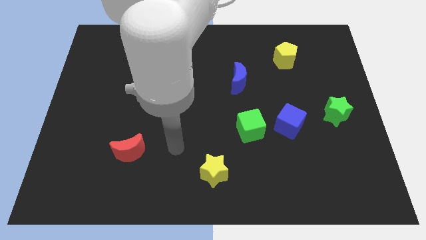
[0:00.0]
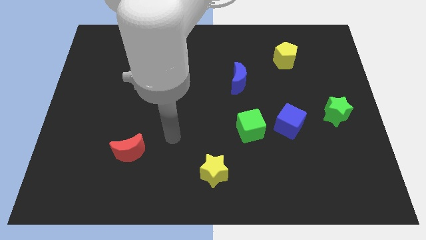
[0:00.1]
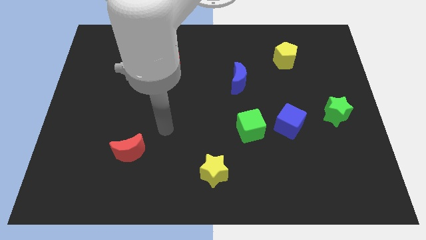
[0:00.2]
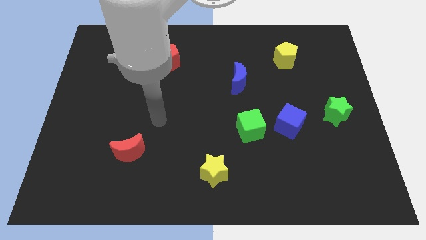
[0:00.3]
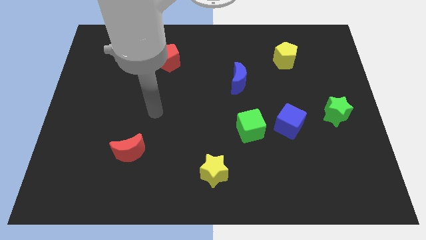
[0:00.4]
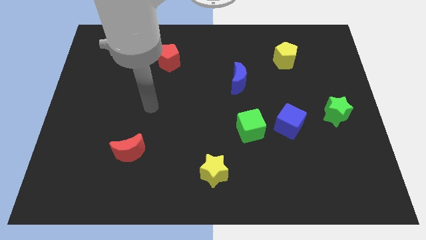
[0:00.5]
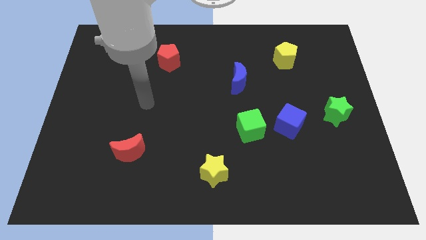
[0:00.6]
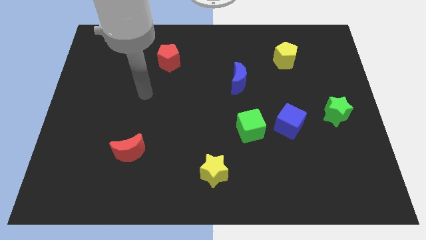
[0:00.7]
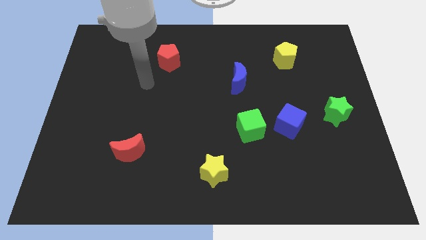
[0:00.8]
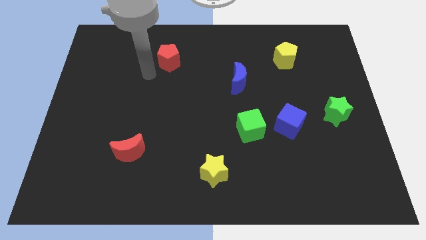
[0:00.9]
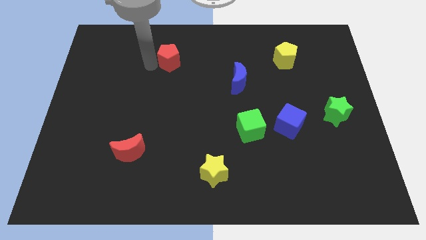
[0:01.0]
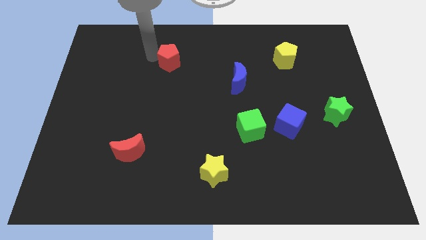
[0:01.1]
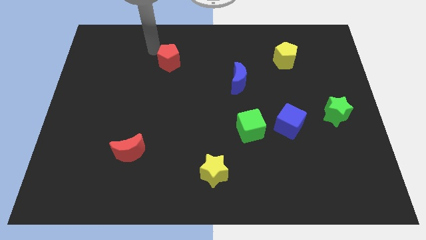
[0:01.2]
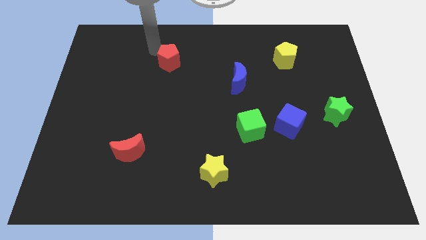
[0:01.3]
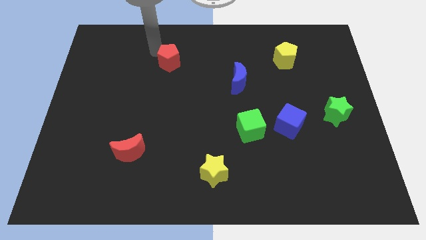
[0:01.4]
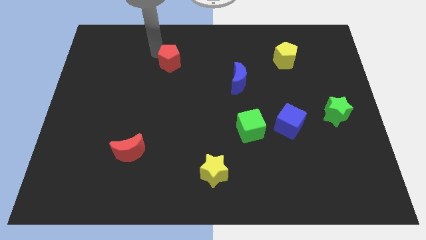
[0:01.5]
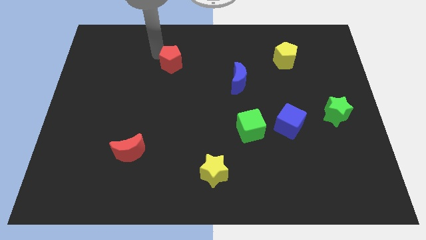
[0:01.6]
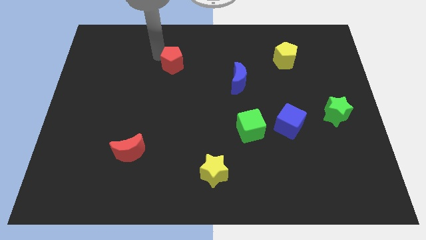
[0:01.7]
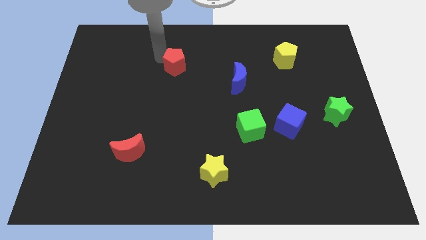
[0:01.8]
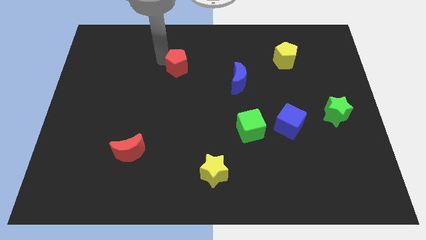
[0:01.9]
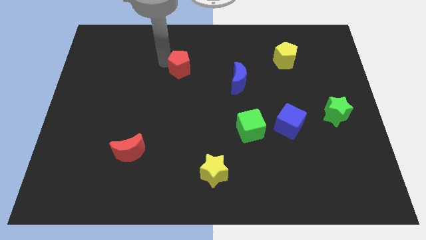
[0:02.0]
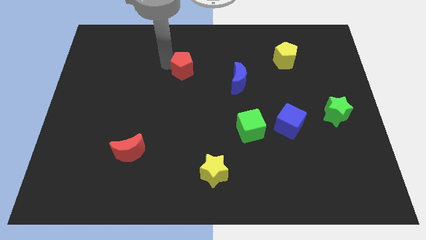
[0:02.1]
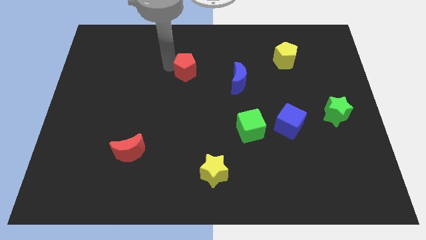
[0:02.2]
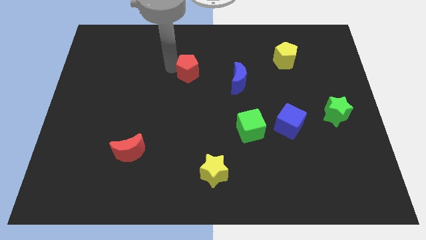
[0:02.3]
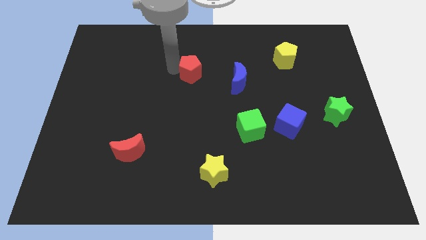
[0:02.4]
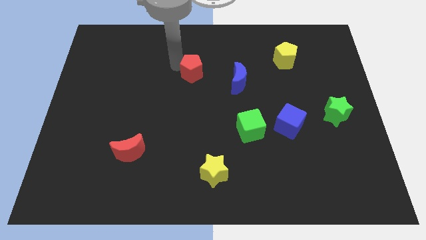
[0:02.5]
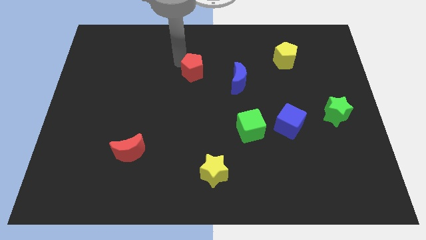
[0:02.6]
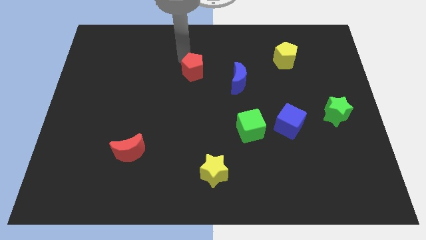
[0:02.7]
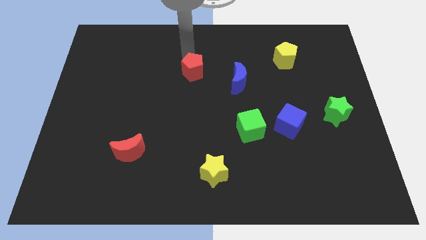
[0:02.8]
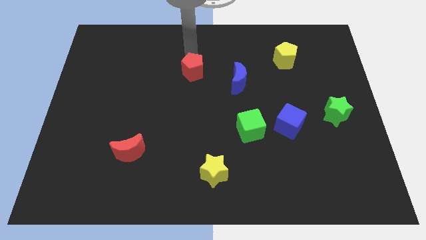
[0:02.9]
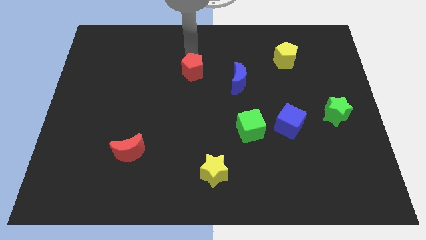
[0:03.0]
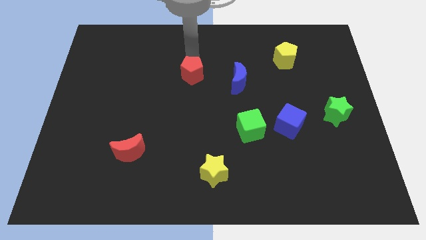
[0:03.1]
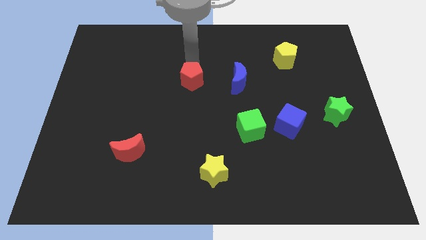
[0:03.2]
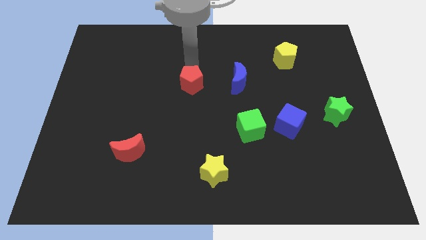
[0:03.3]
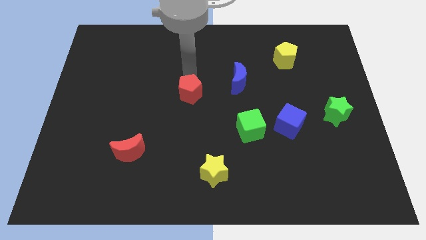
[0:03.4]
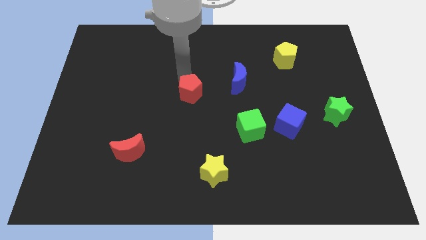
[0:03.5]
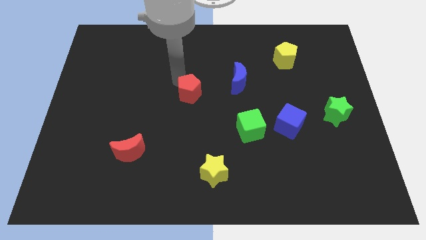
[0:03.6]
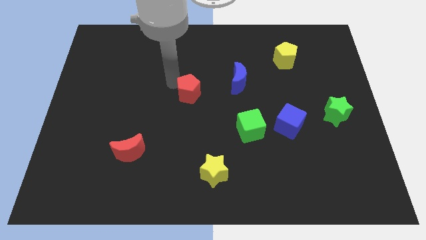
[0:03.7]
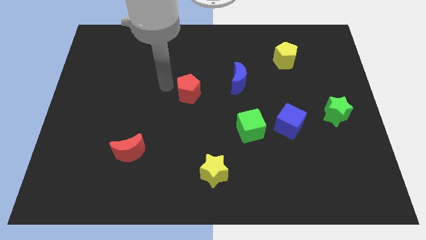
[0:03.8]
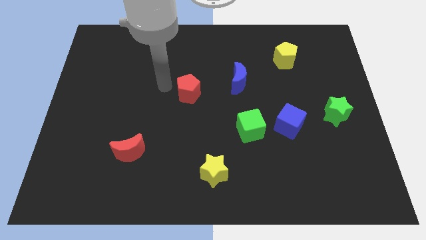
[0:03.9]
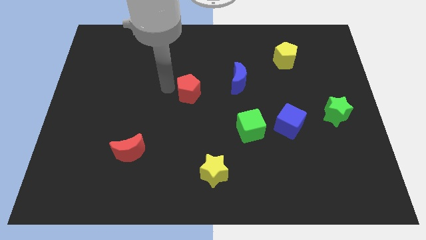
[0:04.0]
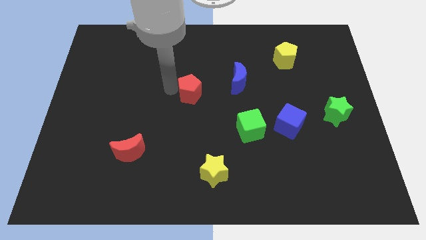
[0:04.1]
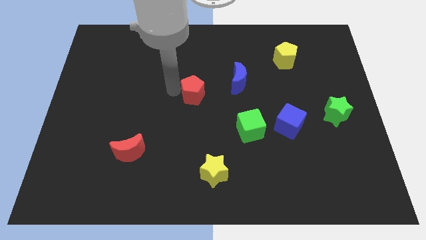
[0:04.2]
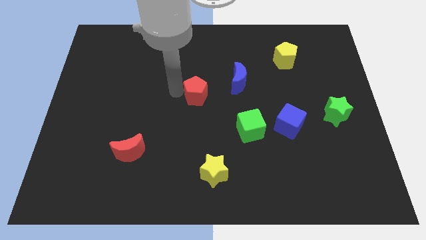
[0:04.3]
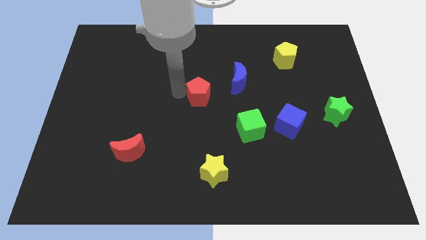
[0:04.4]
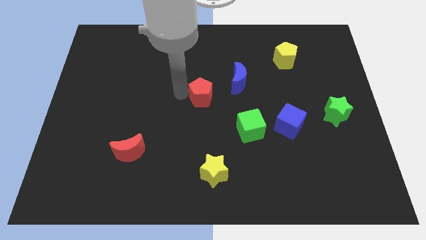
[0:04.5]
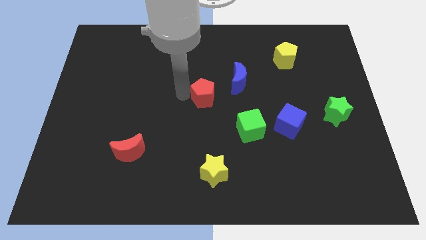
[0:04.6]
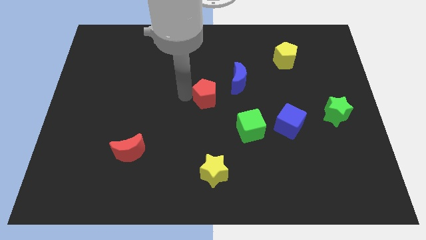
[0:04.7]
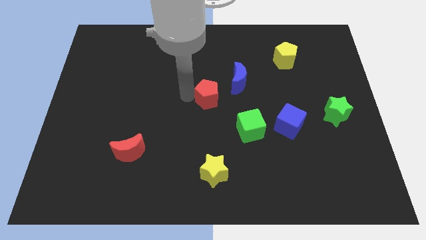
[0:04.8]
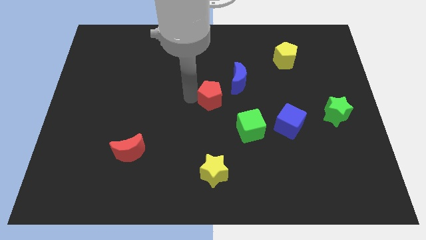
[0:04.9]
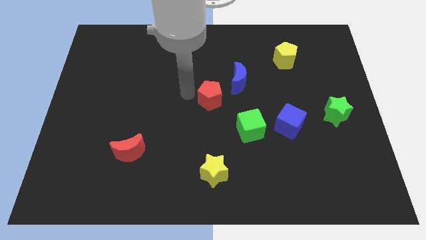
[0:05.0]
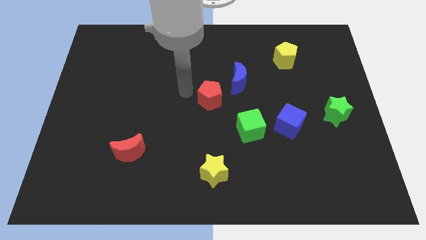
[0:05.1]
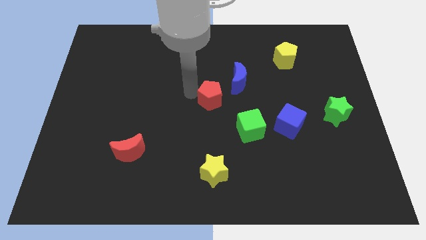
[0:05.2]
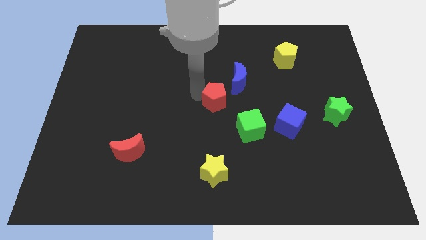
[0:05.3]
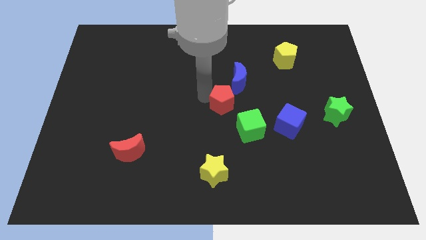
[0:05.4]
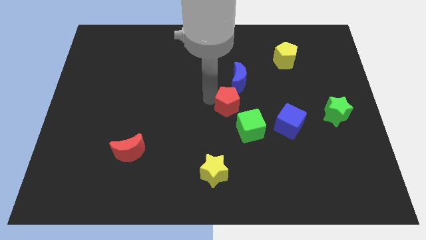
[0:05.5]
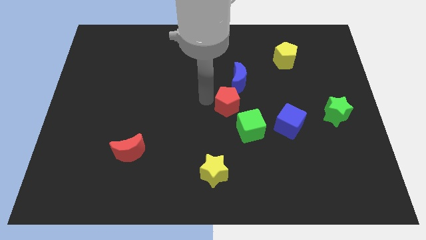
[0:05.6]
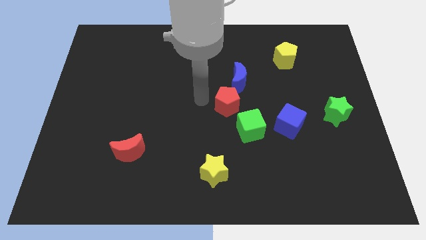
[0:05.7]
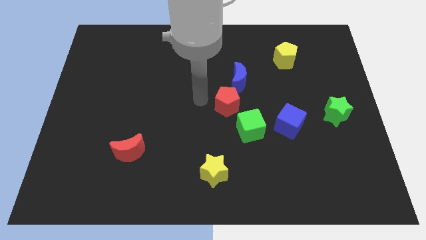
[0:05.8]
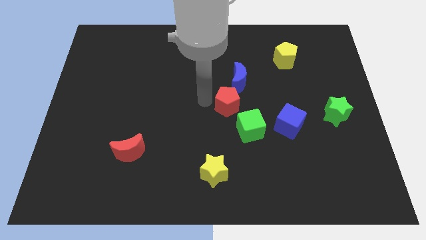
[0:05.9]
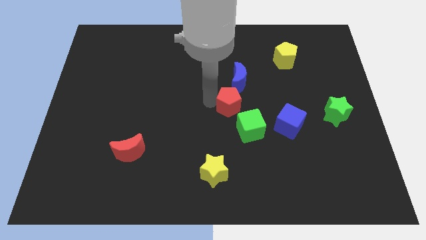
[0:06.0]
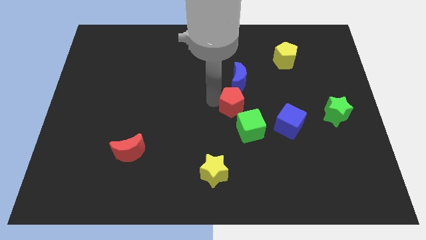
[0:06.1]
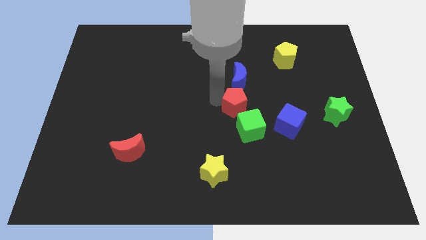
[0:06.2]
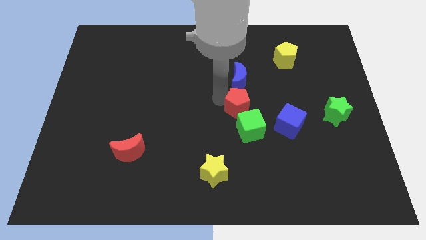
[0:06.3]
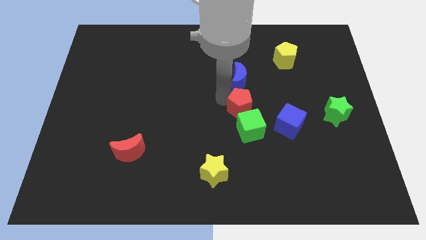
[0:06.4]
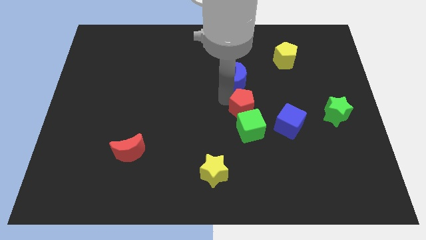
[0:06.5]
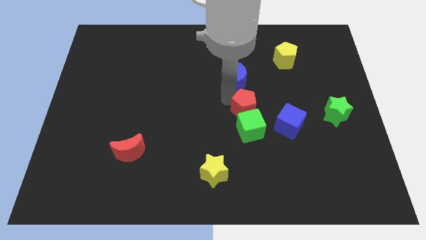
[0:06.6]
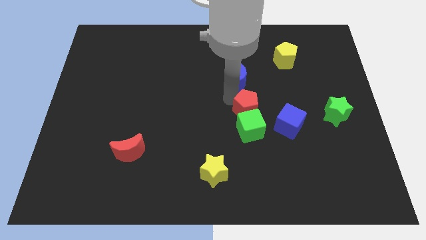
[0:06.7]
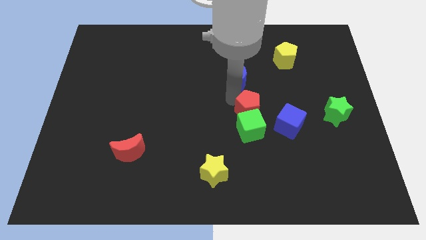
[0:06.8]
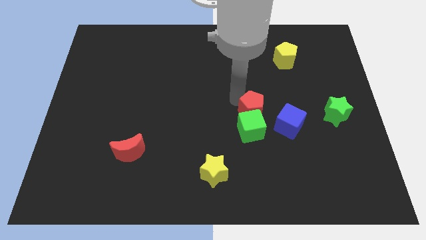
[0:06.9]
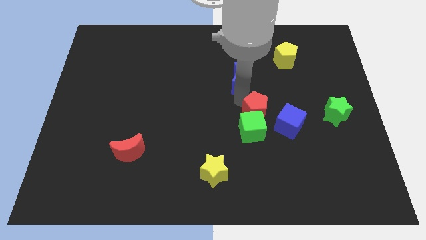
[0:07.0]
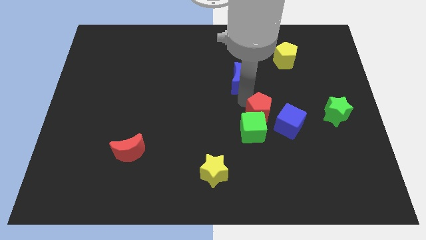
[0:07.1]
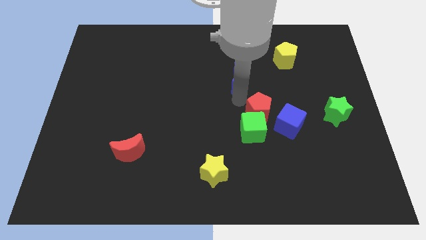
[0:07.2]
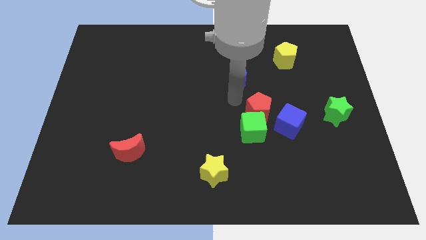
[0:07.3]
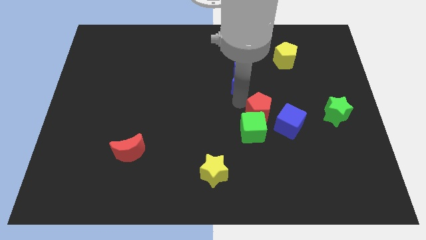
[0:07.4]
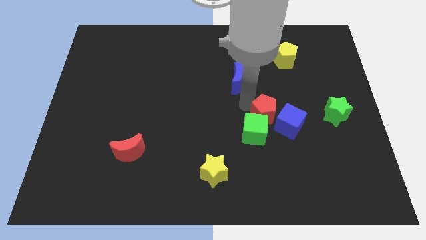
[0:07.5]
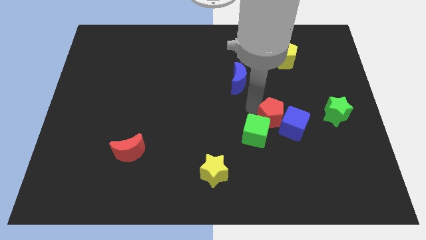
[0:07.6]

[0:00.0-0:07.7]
move the red pentagon towards the blue cube

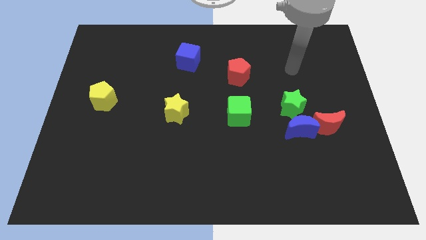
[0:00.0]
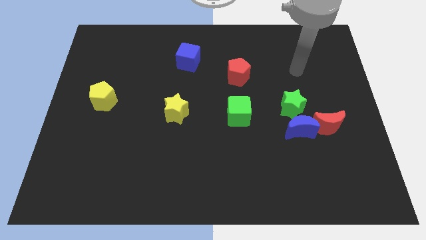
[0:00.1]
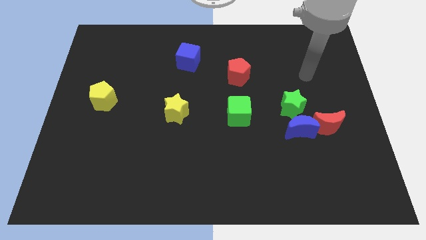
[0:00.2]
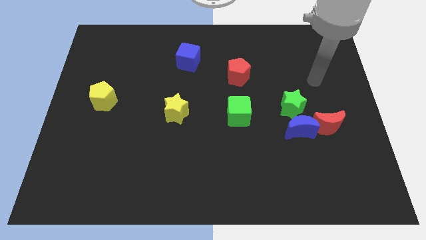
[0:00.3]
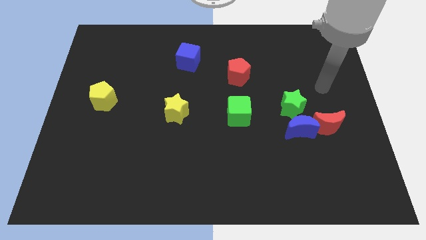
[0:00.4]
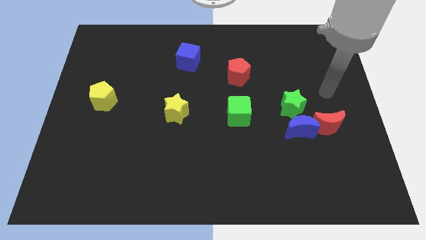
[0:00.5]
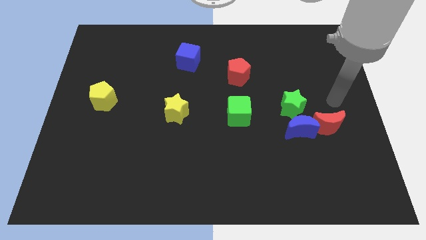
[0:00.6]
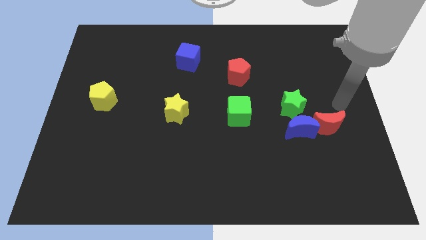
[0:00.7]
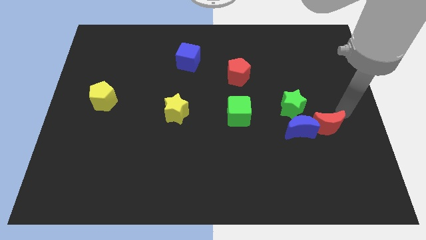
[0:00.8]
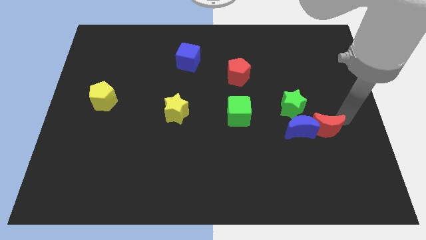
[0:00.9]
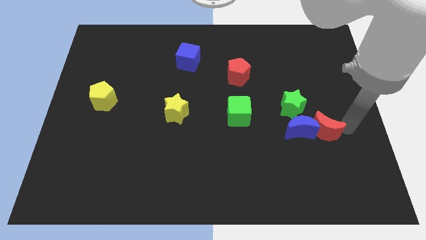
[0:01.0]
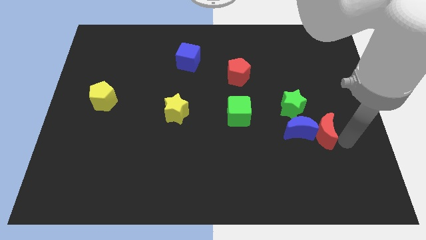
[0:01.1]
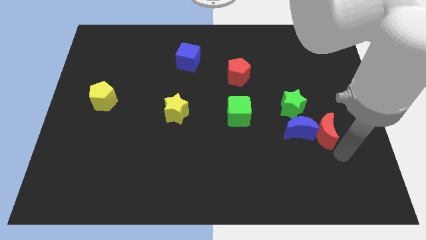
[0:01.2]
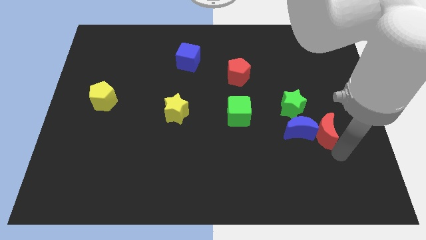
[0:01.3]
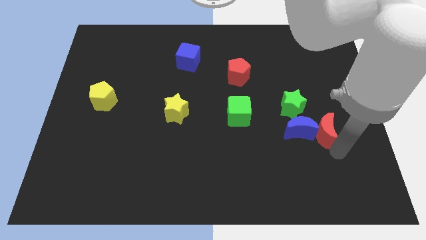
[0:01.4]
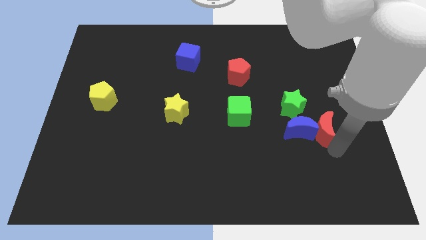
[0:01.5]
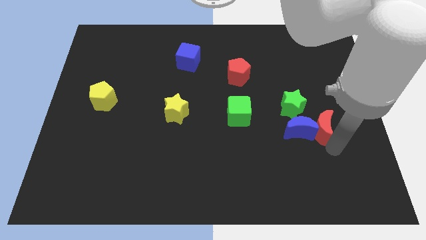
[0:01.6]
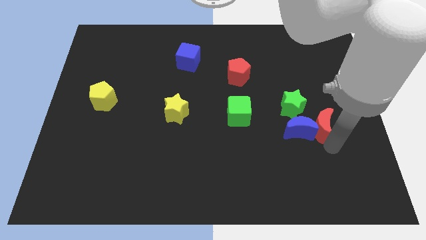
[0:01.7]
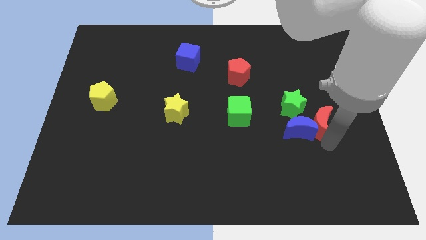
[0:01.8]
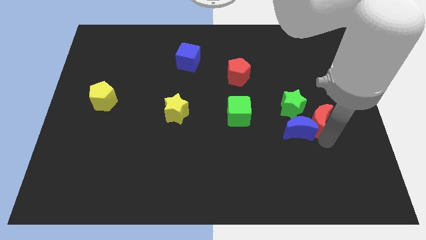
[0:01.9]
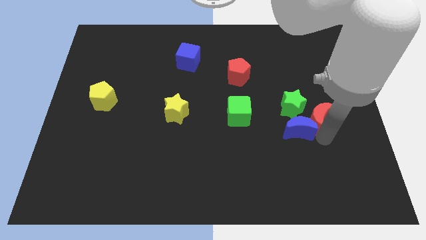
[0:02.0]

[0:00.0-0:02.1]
push the red moon to the green star
